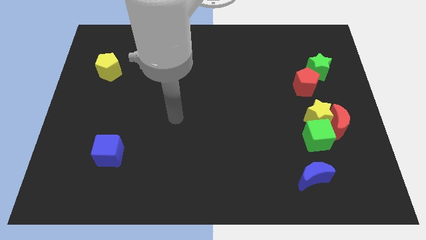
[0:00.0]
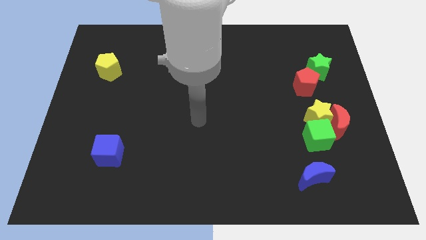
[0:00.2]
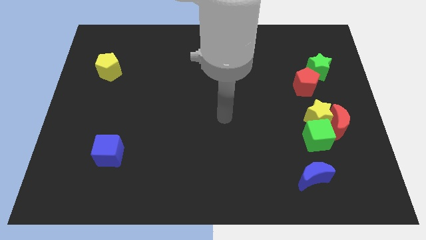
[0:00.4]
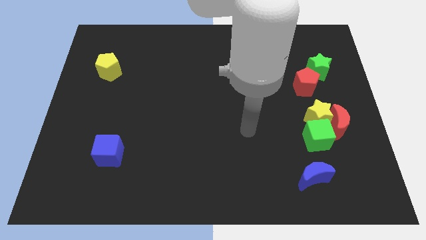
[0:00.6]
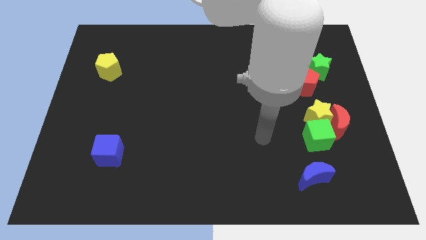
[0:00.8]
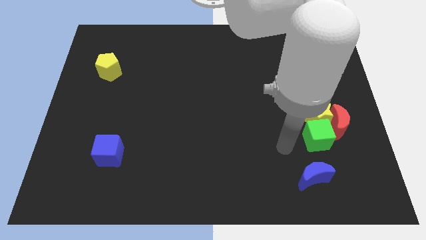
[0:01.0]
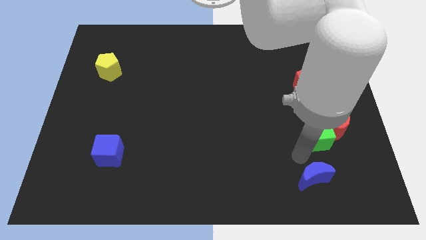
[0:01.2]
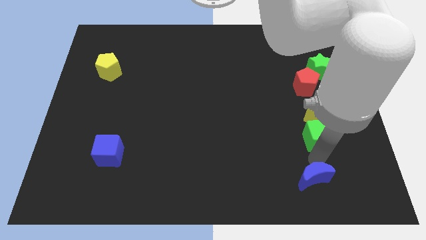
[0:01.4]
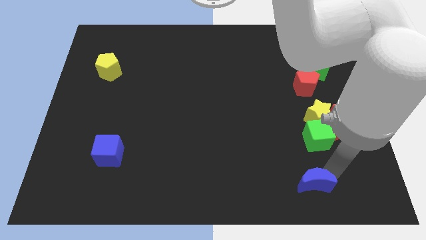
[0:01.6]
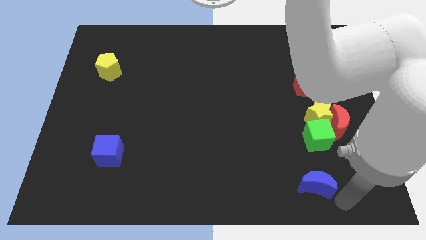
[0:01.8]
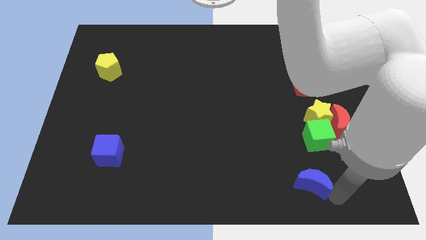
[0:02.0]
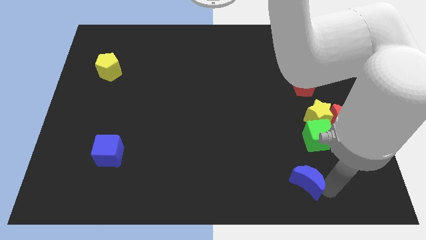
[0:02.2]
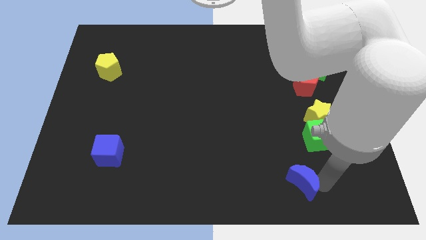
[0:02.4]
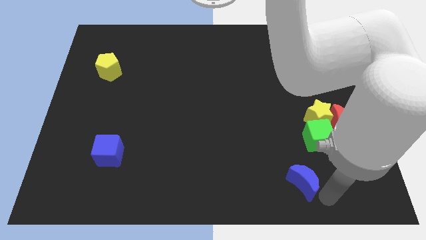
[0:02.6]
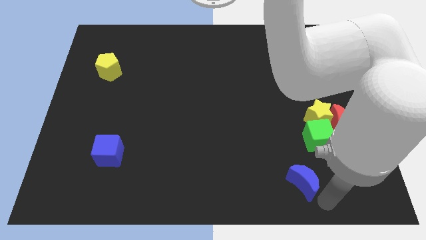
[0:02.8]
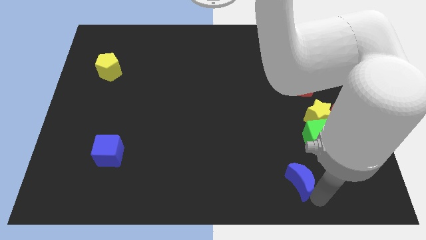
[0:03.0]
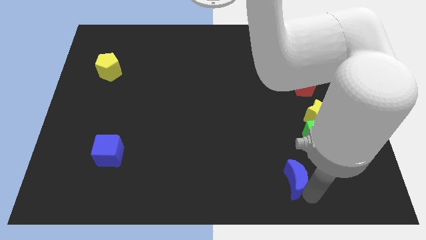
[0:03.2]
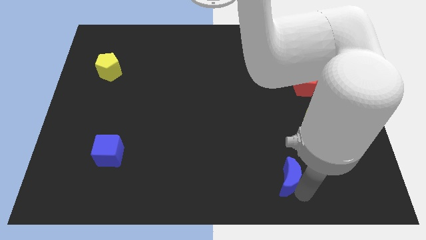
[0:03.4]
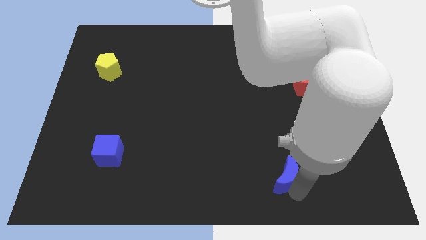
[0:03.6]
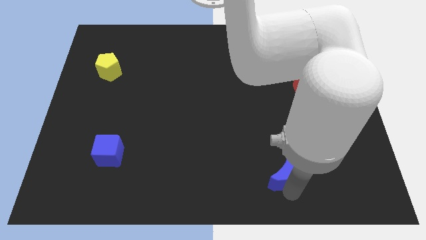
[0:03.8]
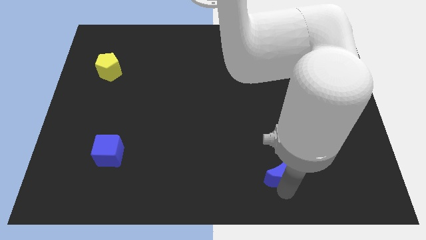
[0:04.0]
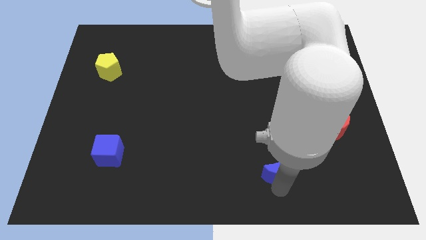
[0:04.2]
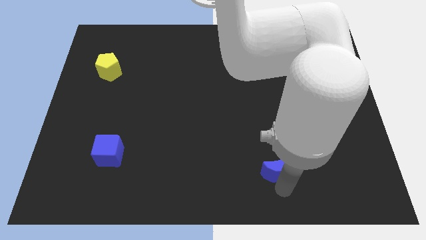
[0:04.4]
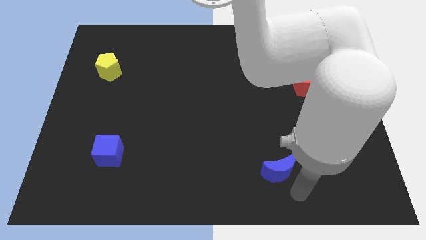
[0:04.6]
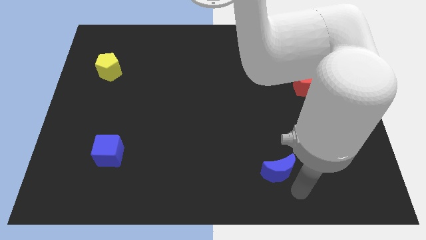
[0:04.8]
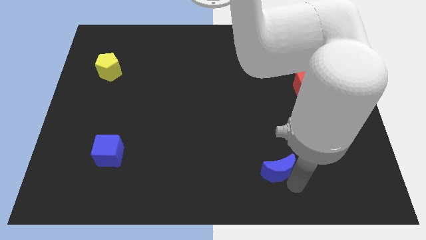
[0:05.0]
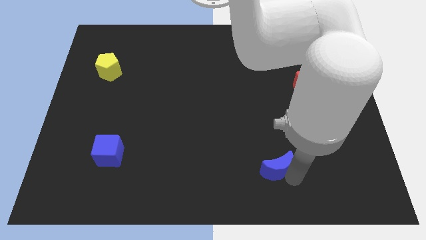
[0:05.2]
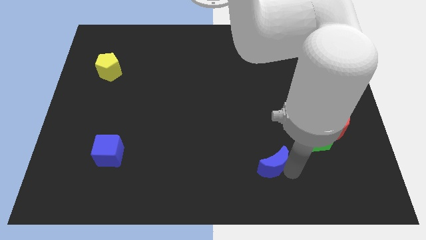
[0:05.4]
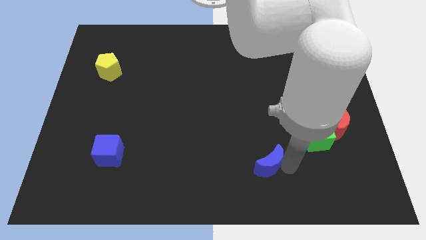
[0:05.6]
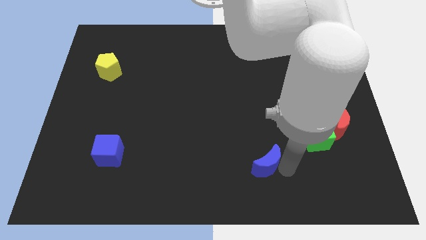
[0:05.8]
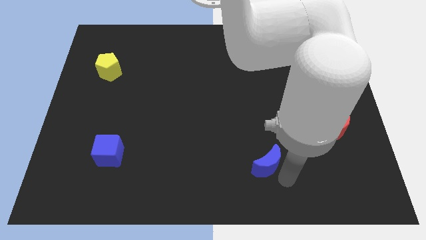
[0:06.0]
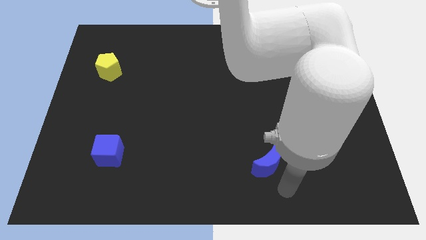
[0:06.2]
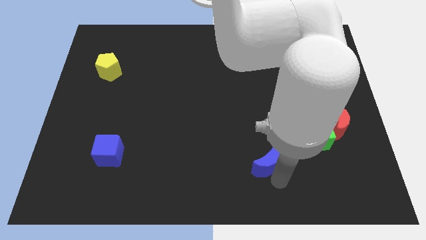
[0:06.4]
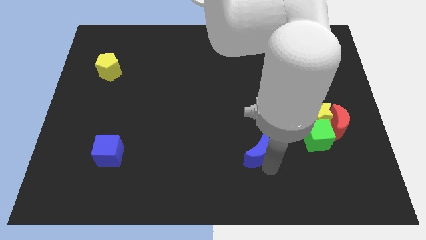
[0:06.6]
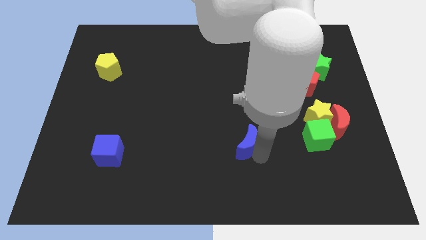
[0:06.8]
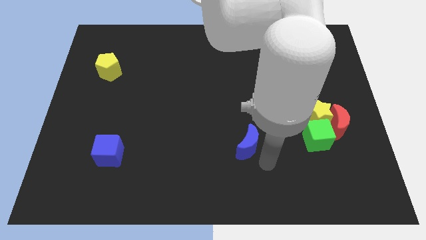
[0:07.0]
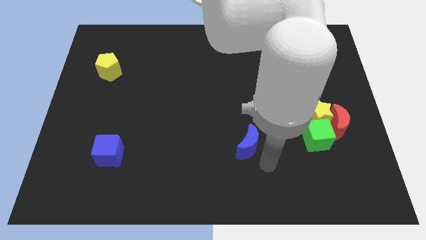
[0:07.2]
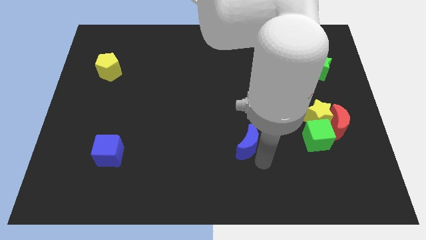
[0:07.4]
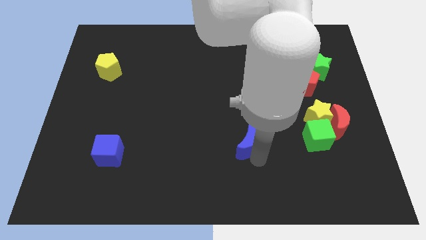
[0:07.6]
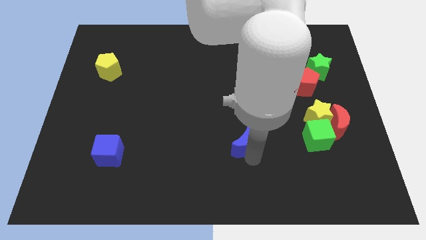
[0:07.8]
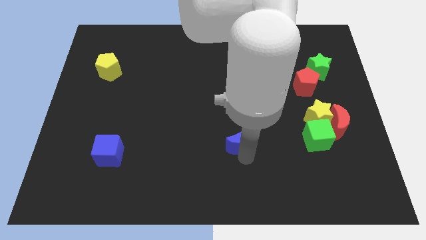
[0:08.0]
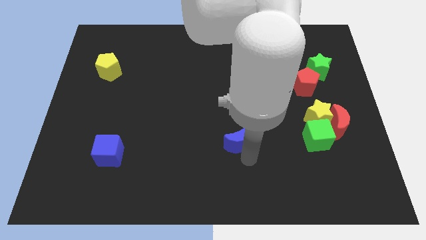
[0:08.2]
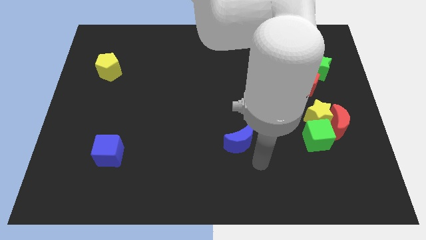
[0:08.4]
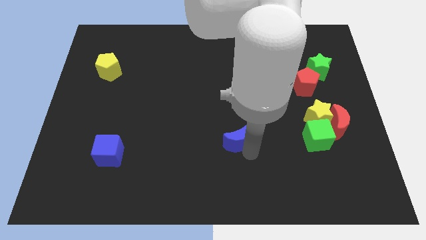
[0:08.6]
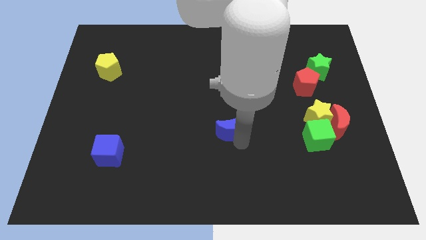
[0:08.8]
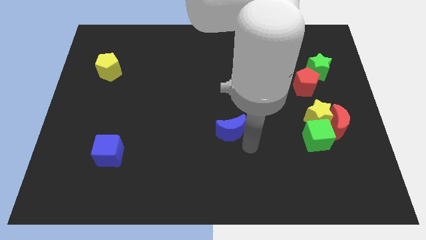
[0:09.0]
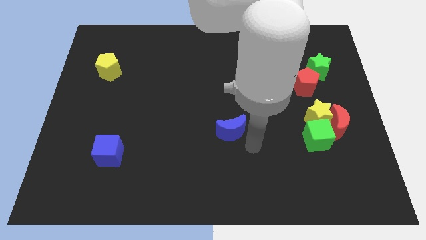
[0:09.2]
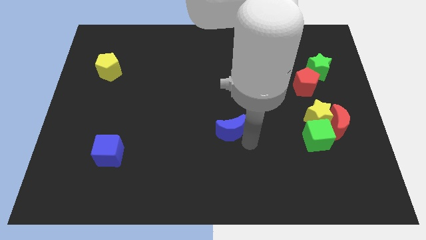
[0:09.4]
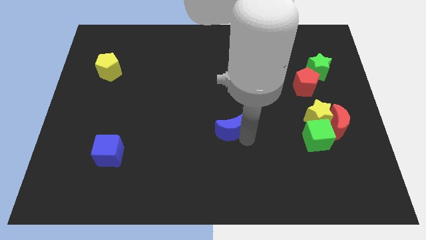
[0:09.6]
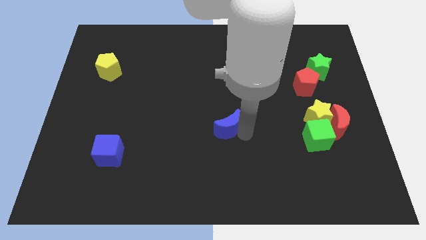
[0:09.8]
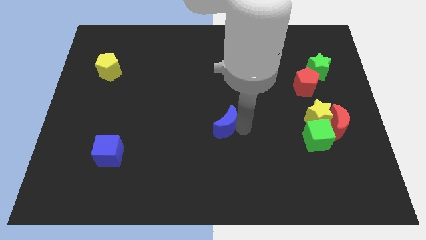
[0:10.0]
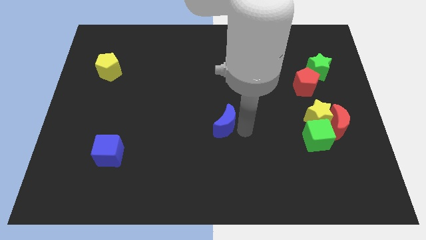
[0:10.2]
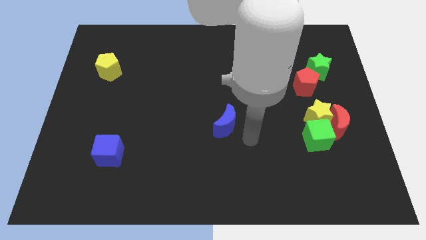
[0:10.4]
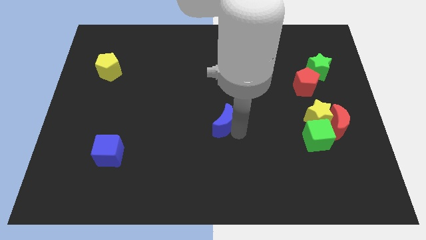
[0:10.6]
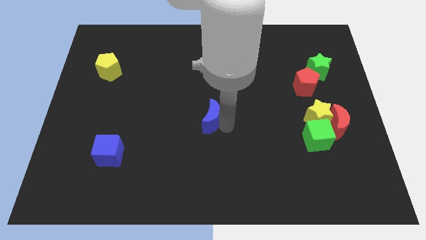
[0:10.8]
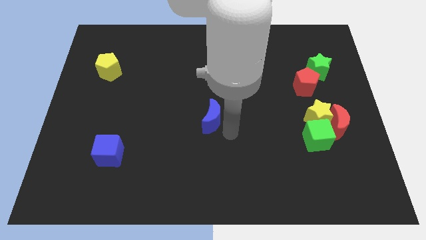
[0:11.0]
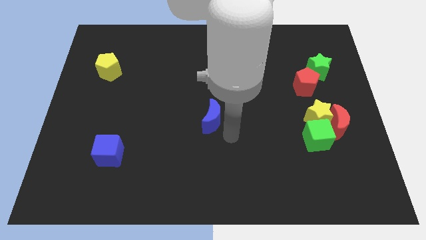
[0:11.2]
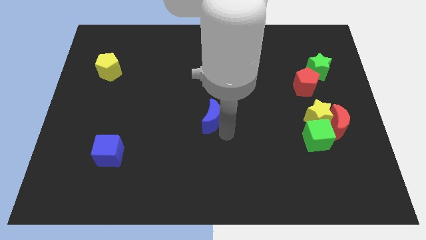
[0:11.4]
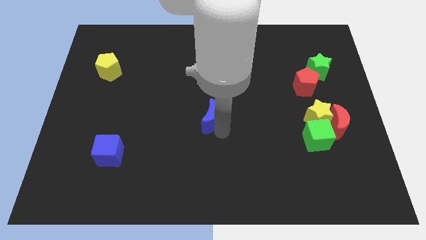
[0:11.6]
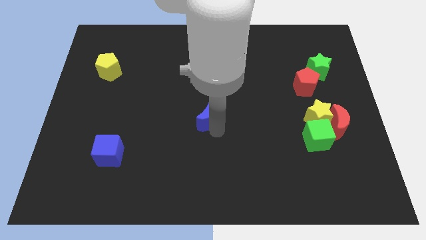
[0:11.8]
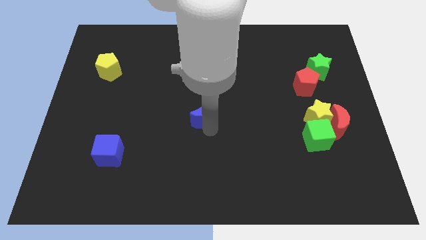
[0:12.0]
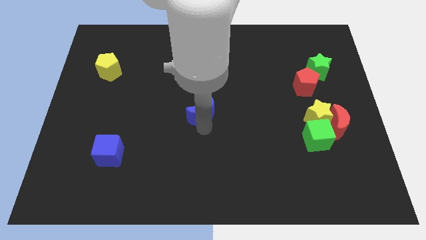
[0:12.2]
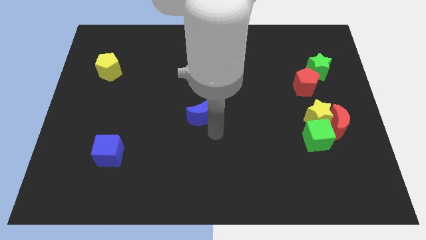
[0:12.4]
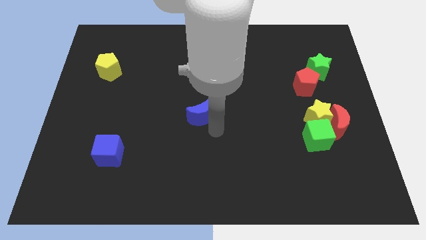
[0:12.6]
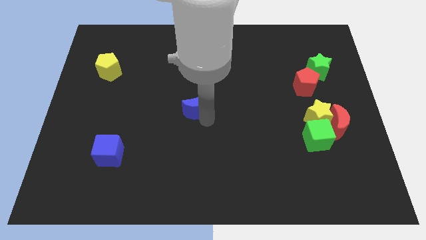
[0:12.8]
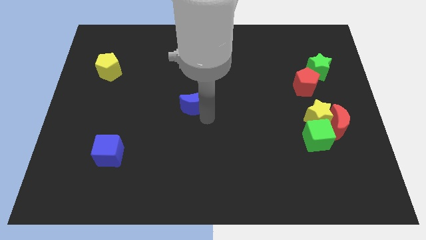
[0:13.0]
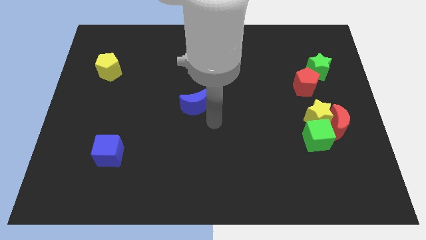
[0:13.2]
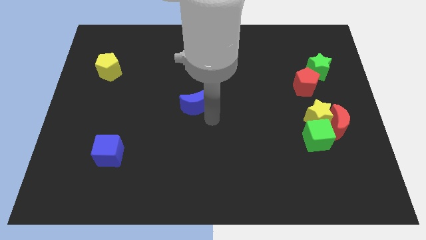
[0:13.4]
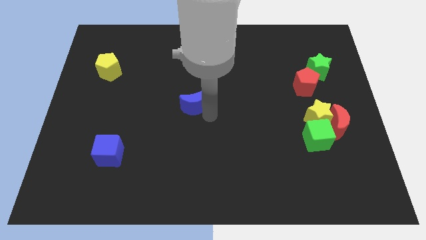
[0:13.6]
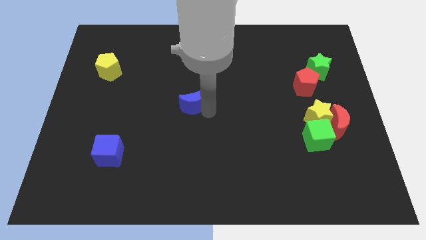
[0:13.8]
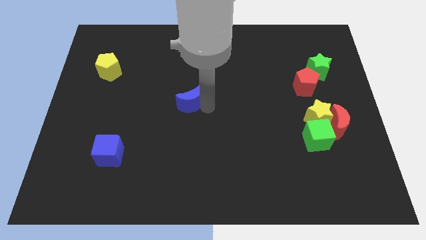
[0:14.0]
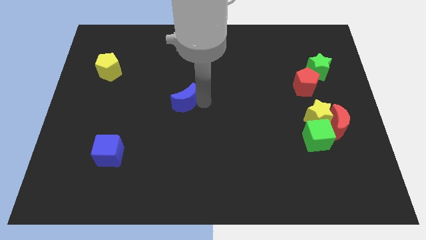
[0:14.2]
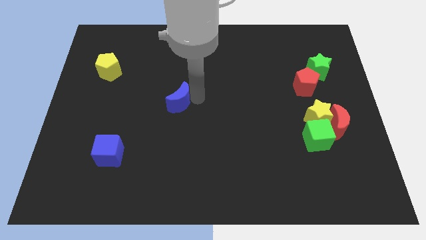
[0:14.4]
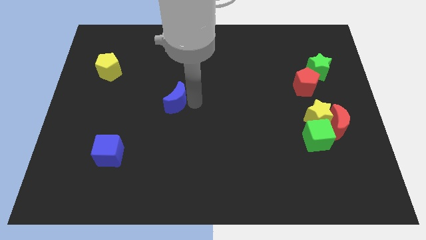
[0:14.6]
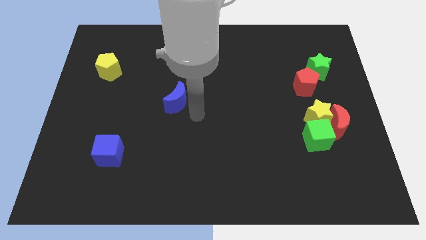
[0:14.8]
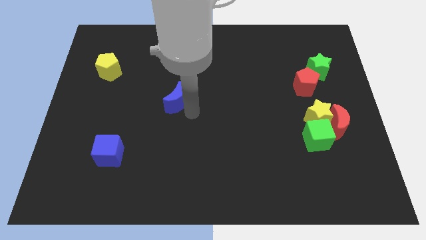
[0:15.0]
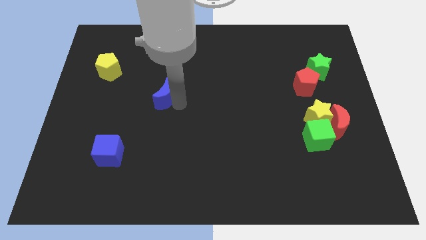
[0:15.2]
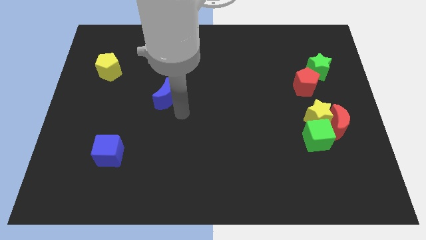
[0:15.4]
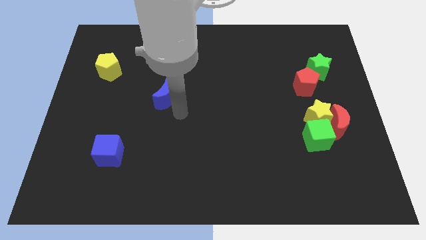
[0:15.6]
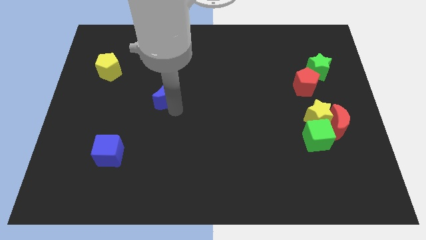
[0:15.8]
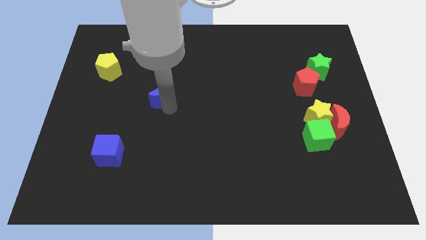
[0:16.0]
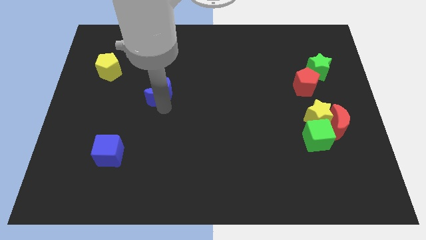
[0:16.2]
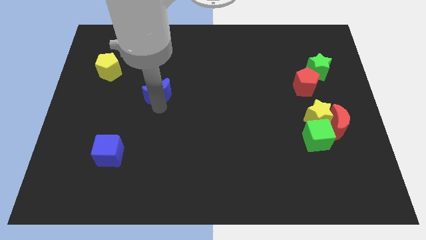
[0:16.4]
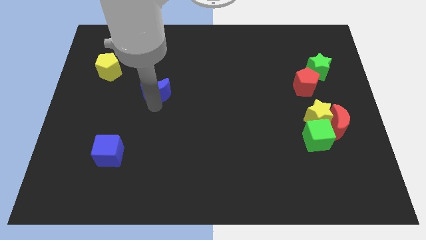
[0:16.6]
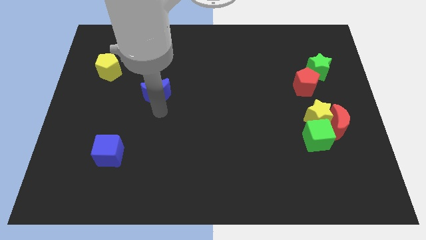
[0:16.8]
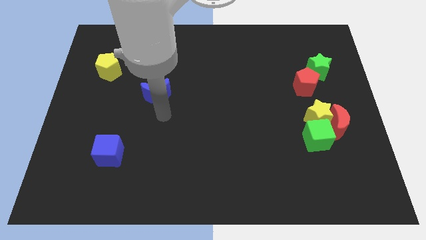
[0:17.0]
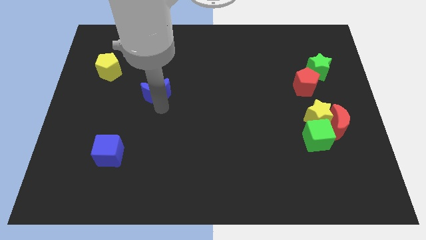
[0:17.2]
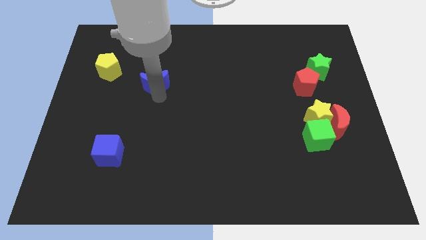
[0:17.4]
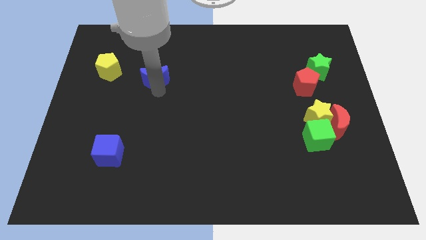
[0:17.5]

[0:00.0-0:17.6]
move the blue moon just right of the yellow pentagon
